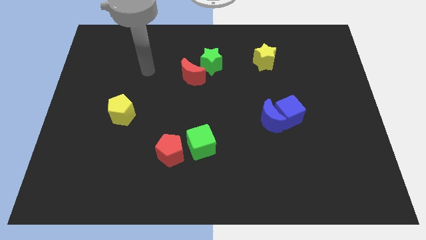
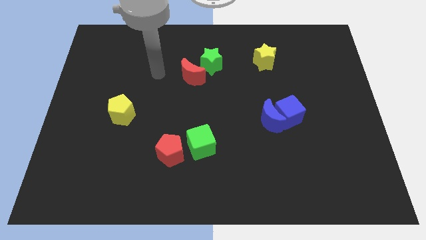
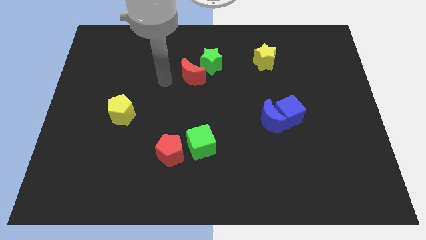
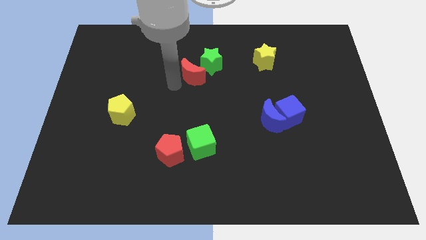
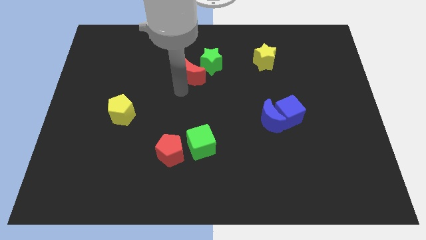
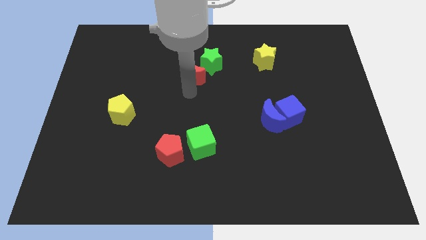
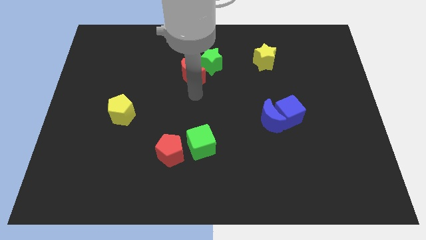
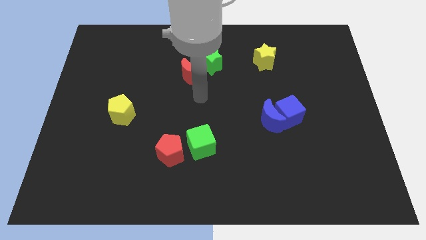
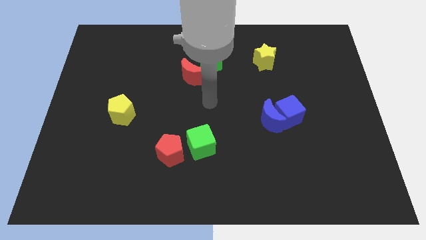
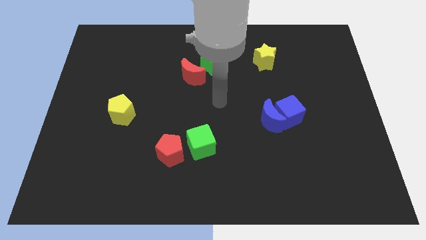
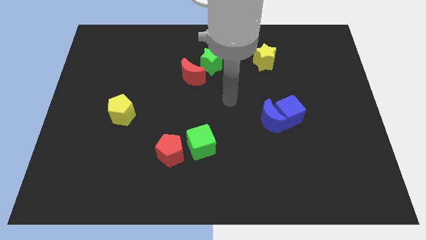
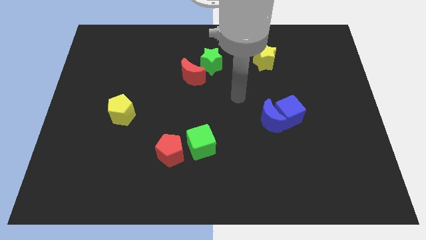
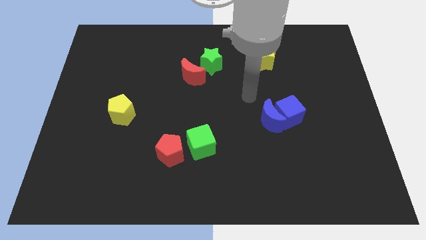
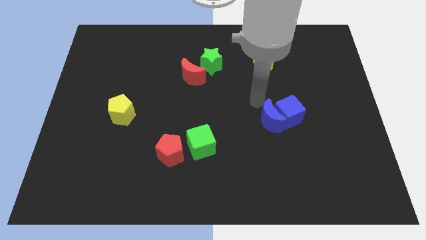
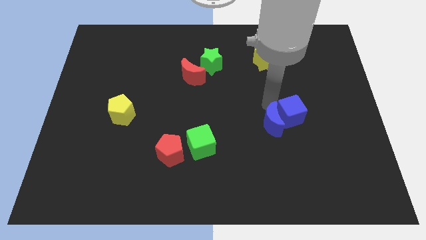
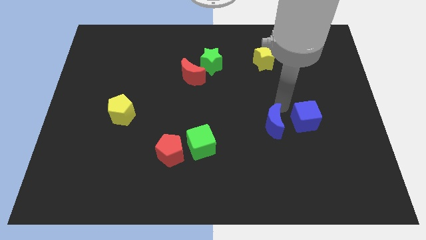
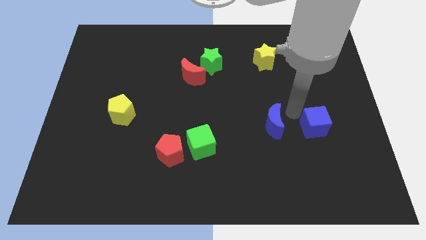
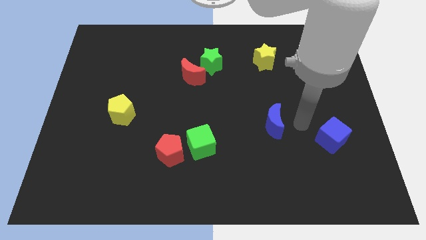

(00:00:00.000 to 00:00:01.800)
move the blue moon away from the blue cube

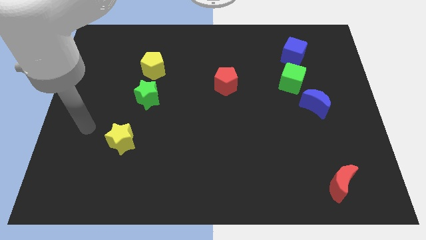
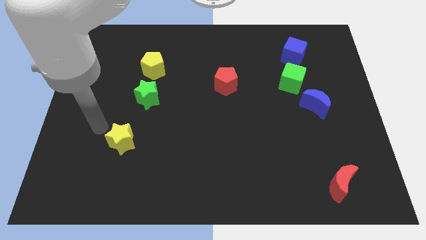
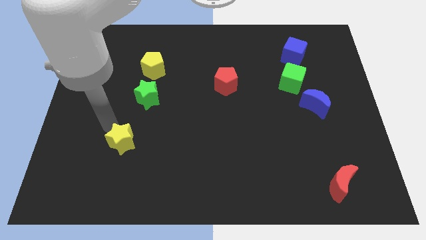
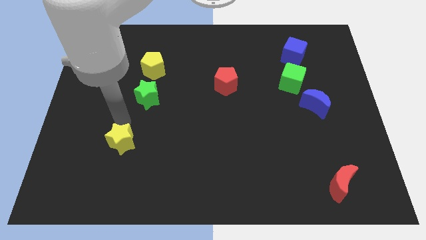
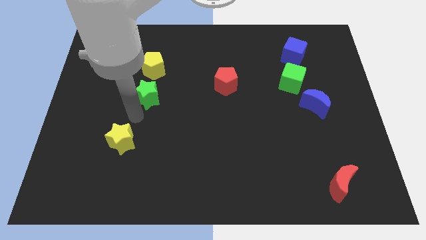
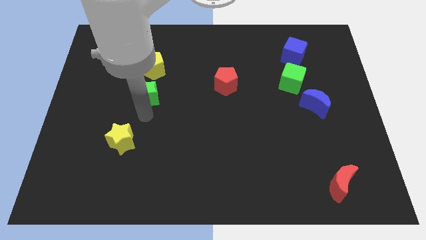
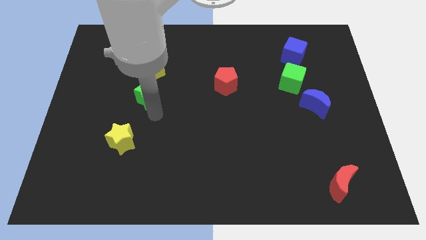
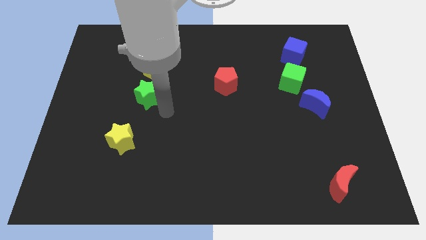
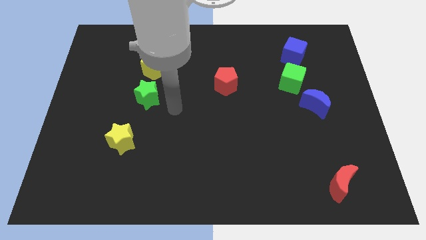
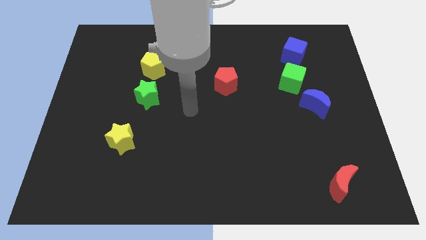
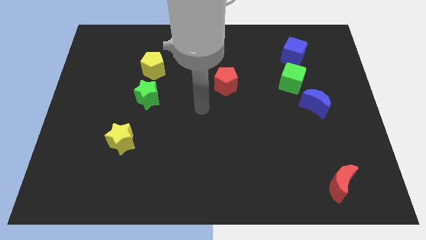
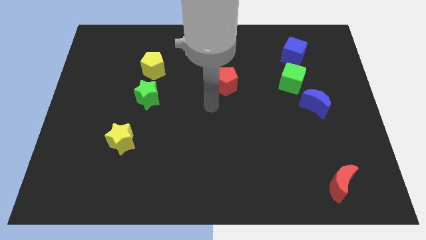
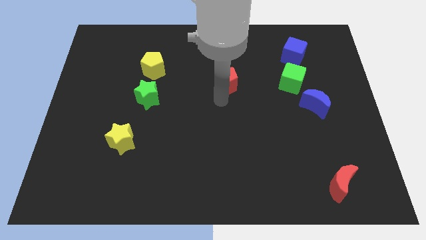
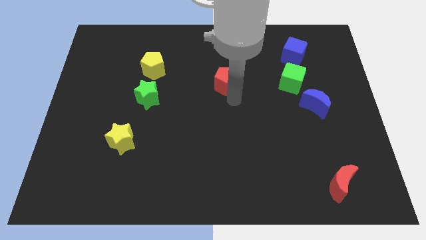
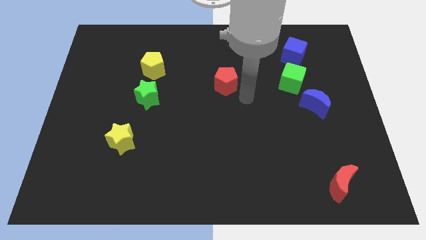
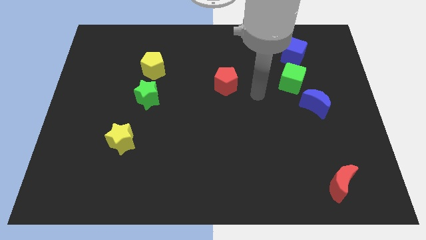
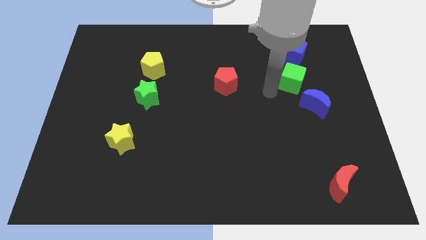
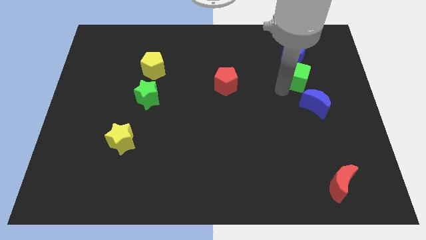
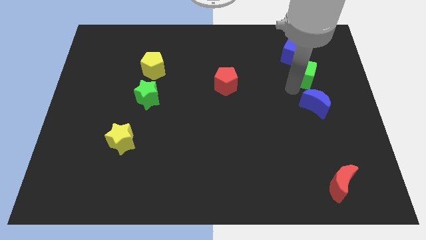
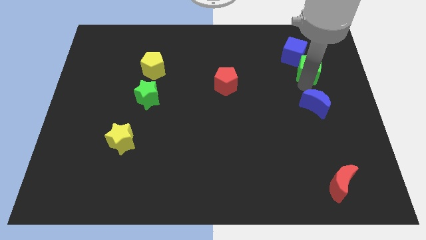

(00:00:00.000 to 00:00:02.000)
separate the blue moon from the green cube

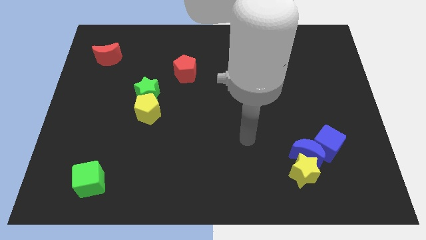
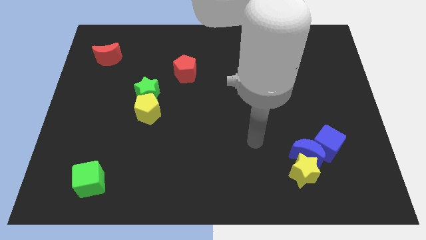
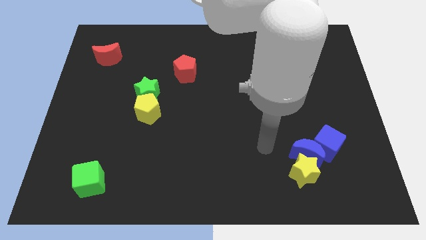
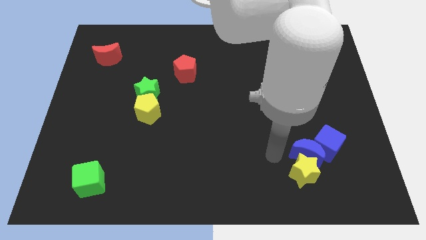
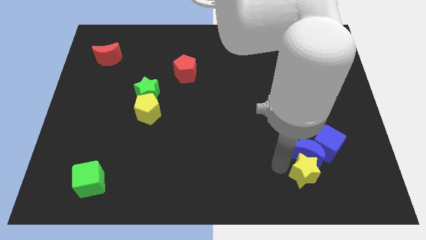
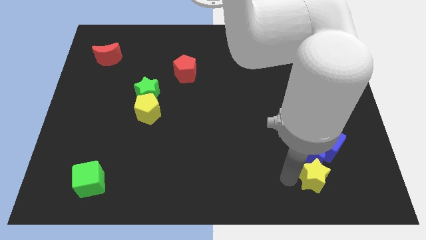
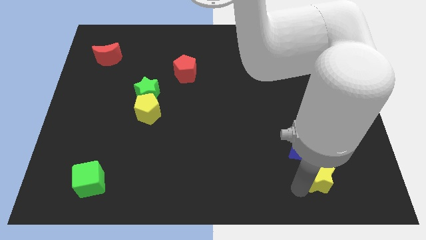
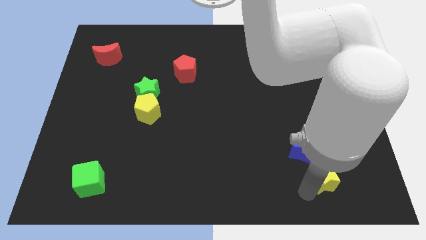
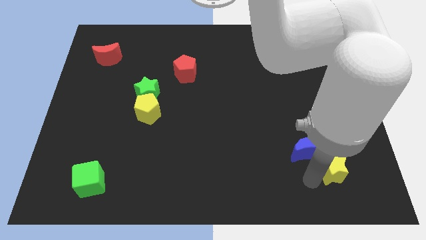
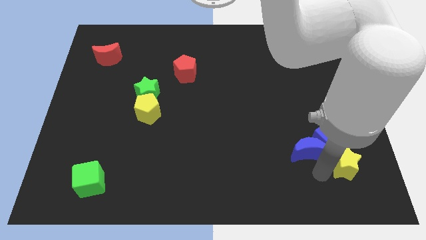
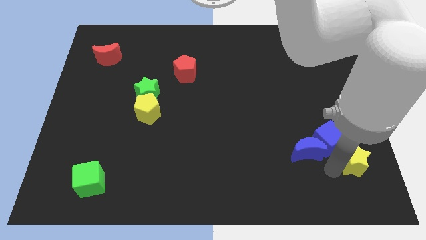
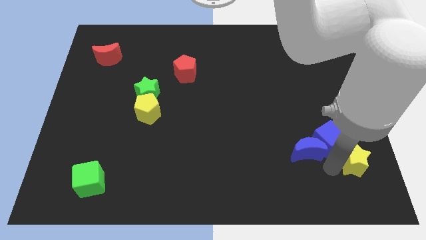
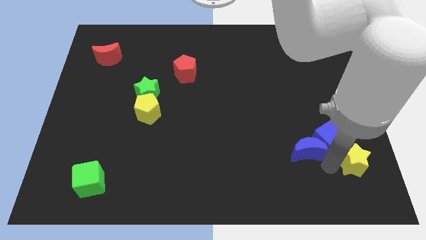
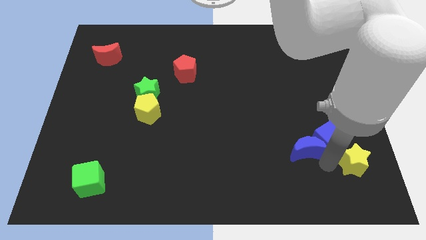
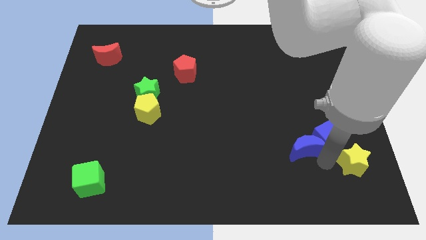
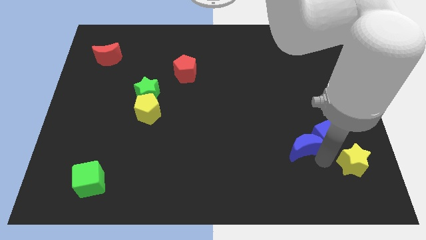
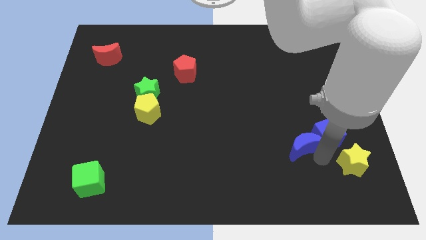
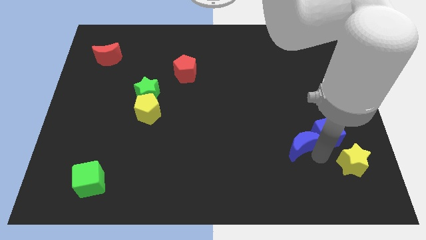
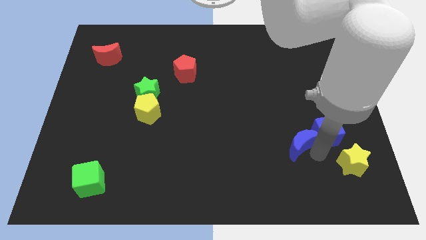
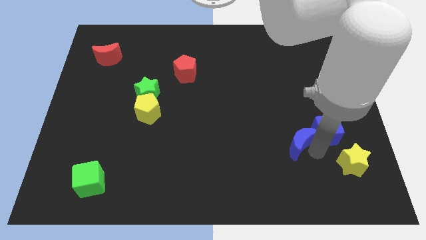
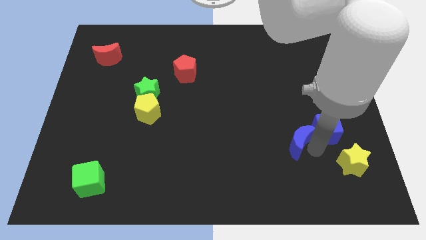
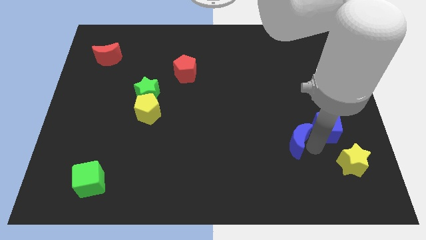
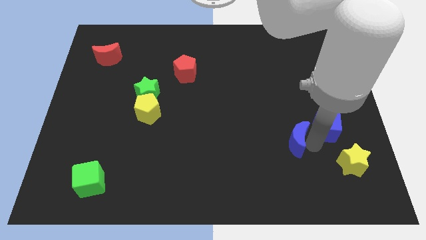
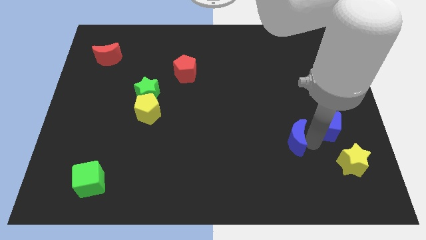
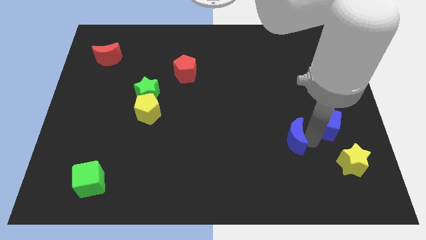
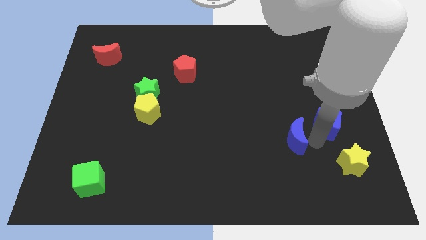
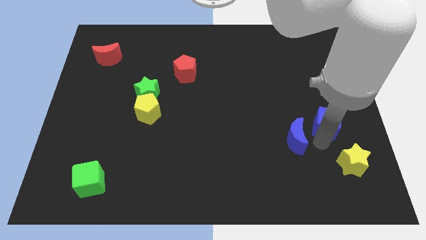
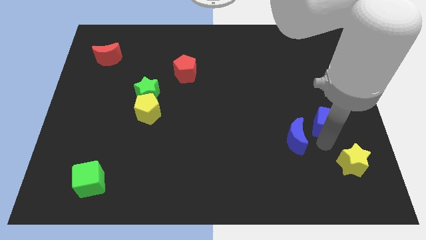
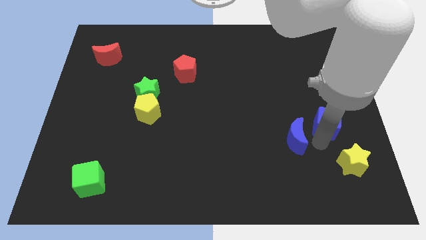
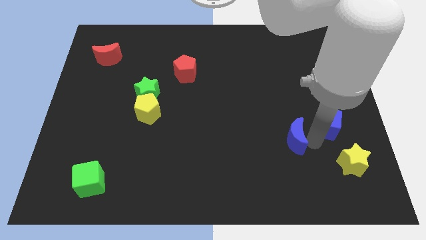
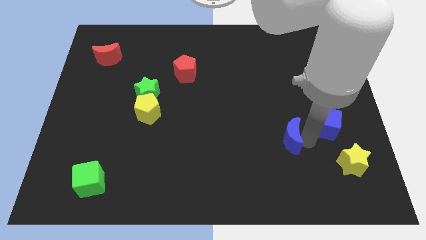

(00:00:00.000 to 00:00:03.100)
separate the blue moon from the yellow star and blue cube

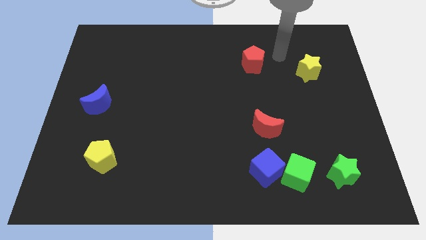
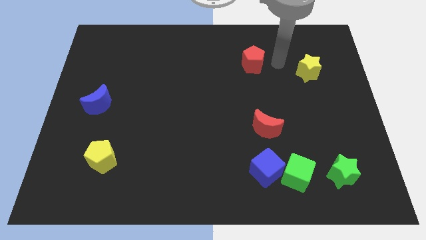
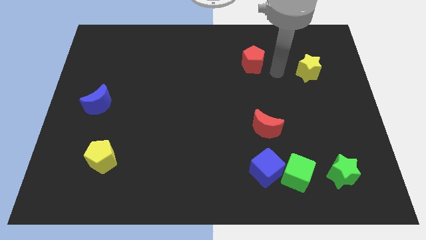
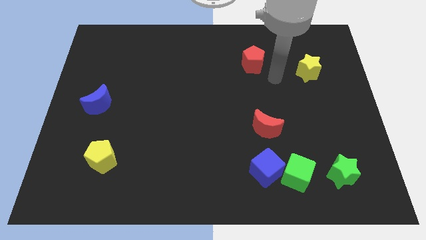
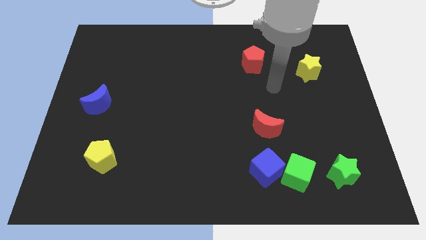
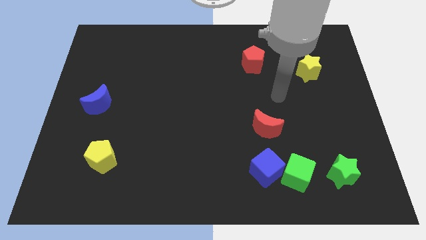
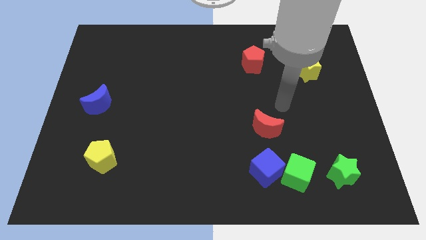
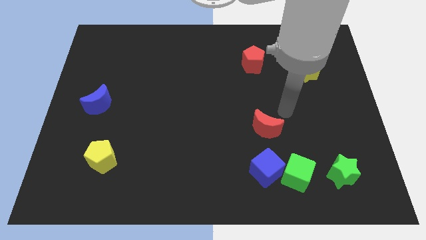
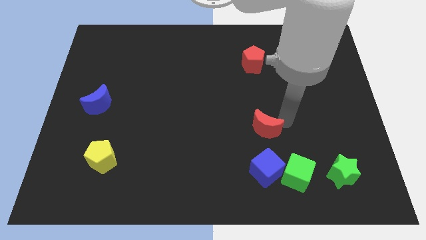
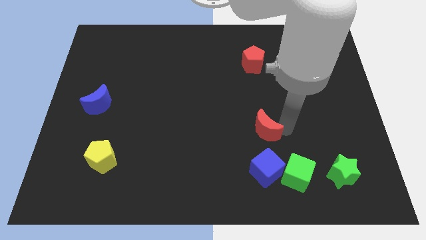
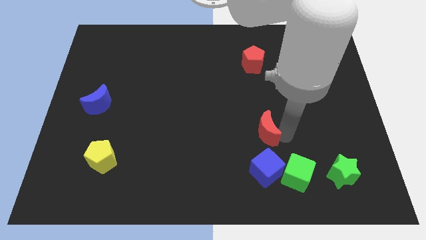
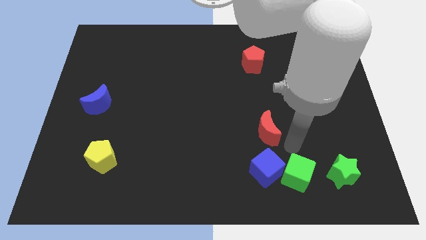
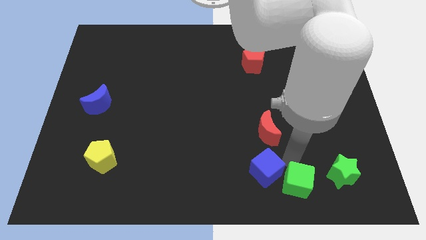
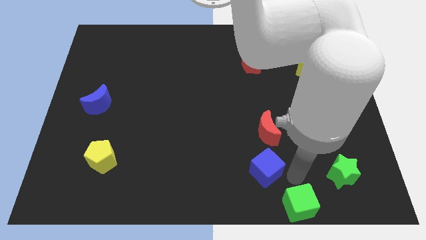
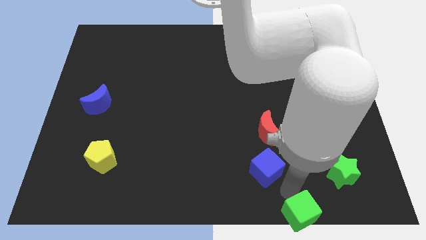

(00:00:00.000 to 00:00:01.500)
pull the blue cube apart from the green cube

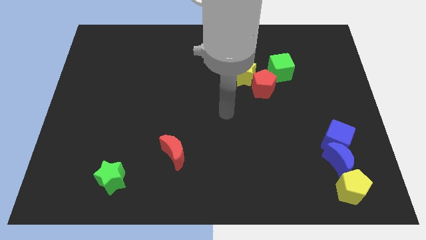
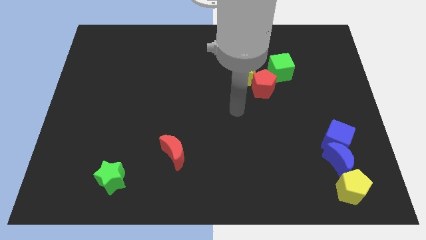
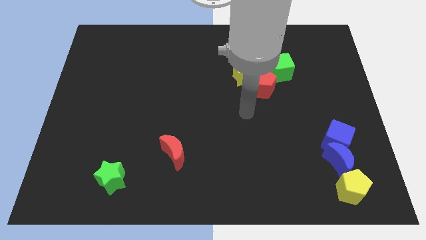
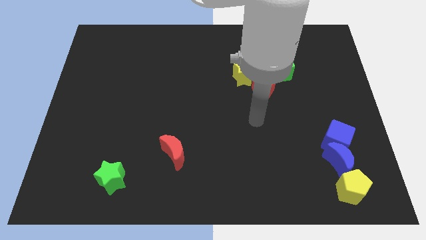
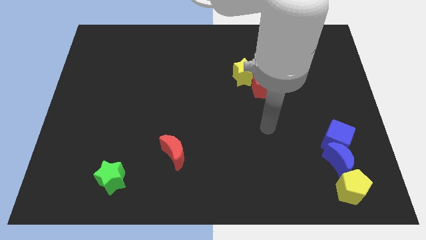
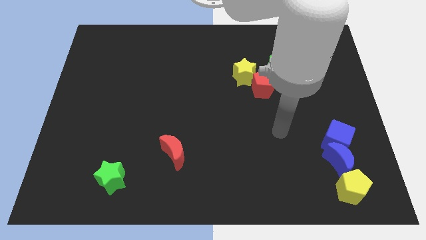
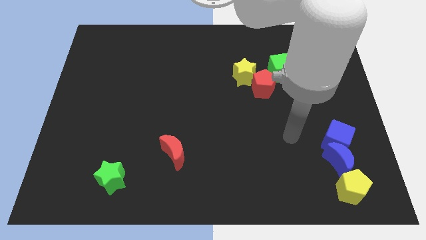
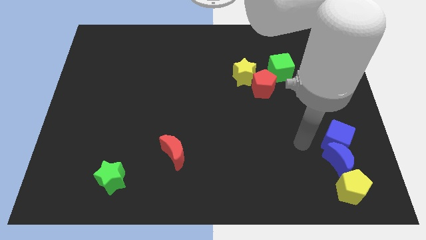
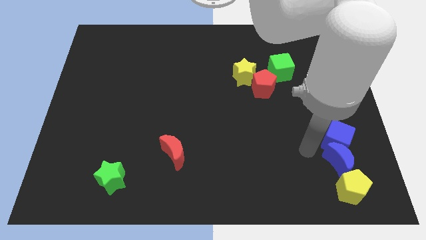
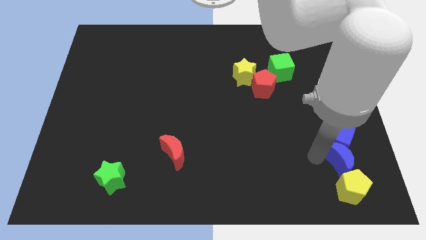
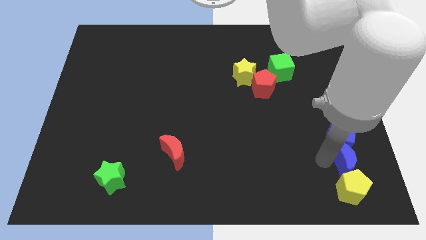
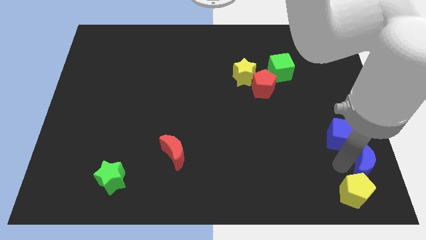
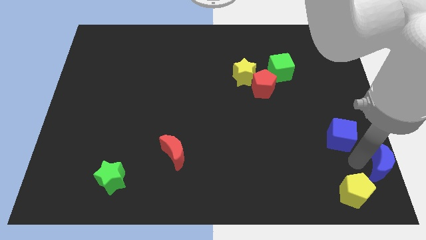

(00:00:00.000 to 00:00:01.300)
move the blue cube away from the blue moon
